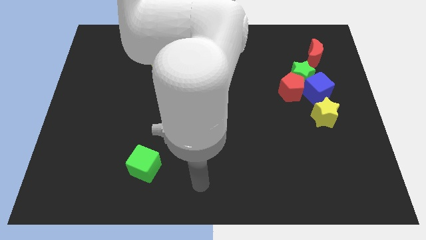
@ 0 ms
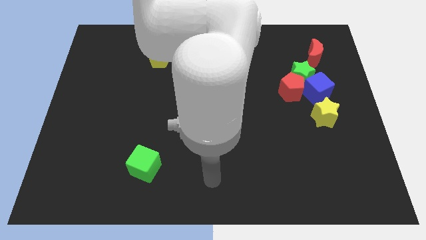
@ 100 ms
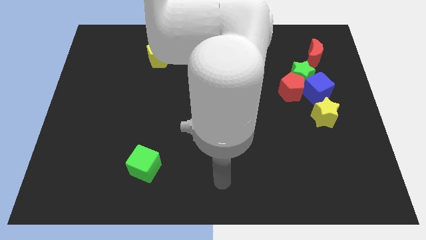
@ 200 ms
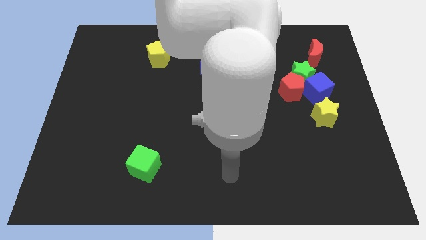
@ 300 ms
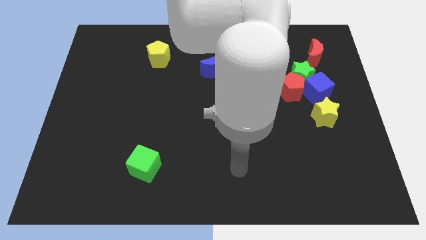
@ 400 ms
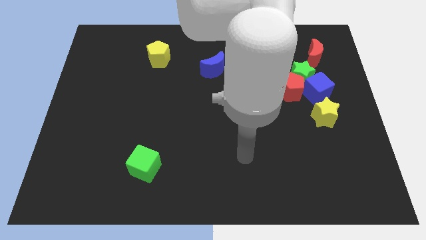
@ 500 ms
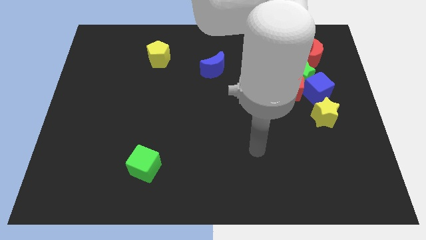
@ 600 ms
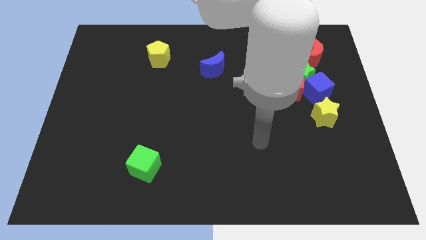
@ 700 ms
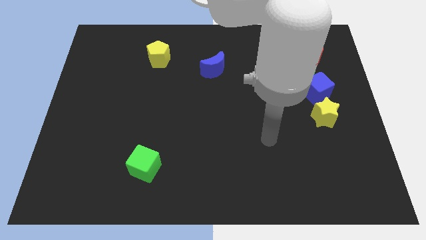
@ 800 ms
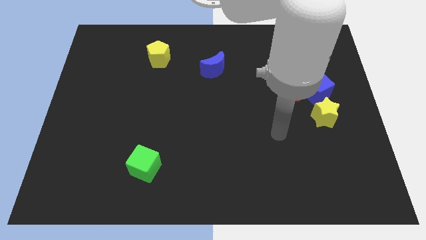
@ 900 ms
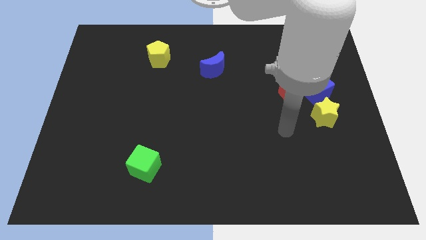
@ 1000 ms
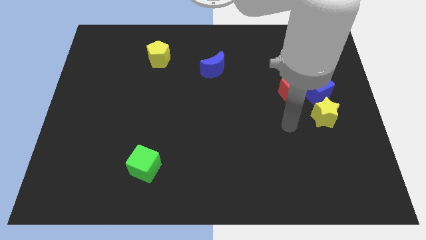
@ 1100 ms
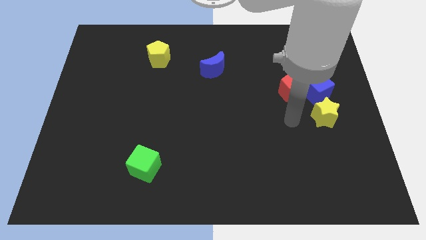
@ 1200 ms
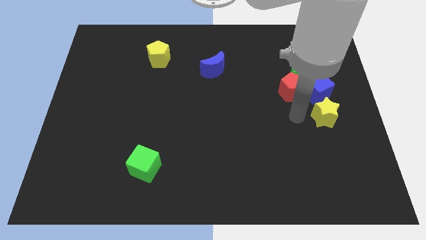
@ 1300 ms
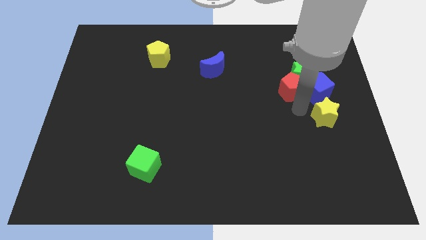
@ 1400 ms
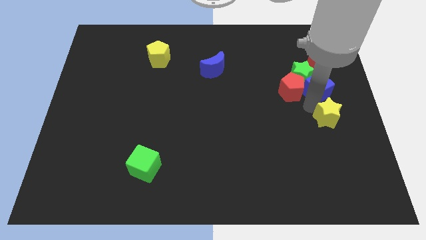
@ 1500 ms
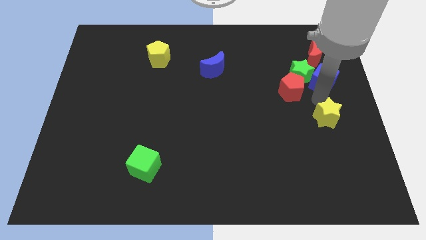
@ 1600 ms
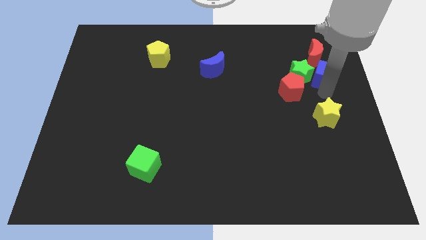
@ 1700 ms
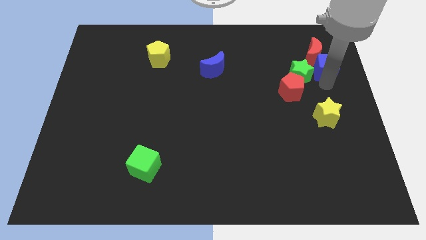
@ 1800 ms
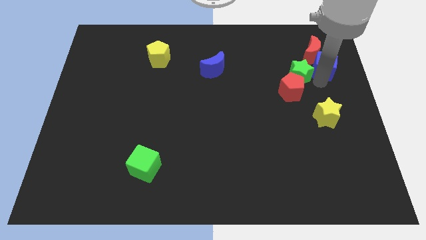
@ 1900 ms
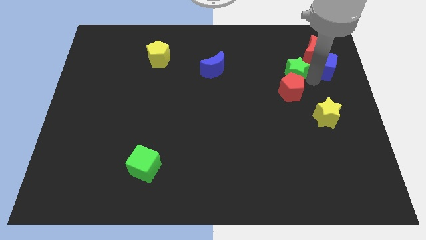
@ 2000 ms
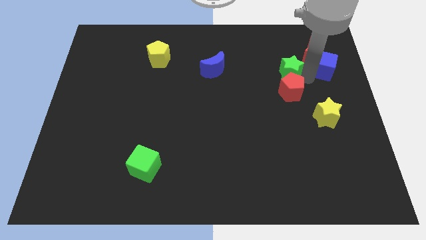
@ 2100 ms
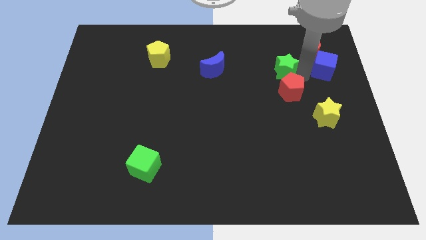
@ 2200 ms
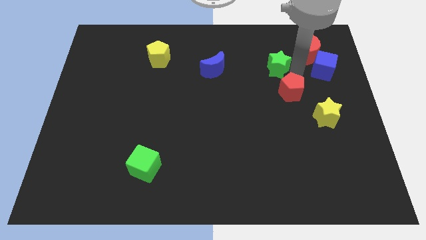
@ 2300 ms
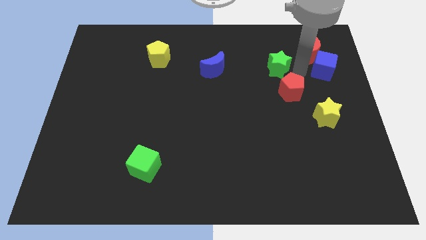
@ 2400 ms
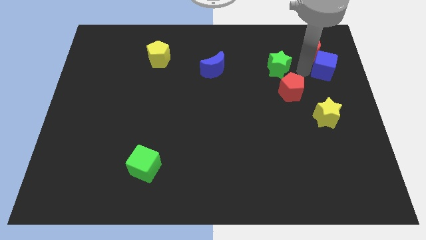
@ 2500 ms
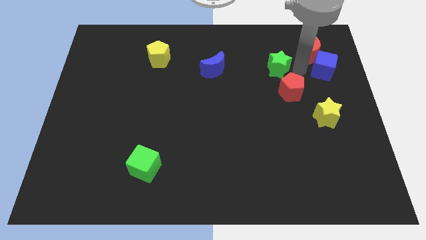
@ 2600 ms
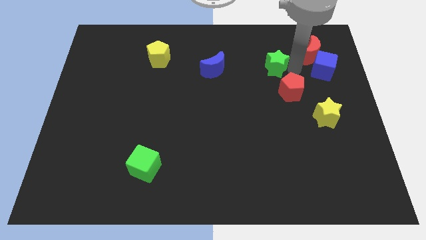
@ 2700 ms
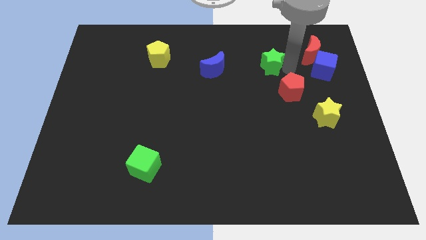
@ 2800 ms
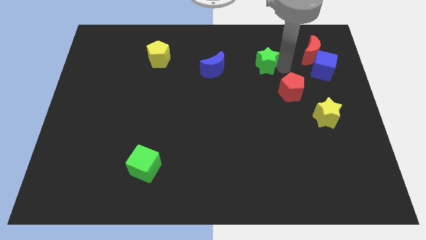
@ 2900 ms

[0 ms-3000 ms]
pull the green star apart from the group

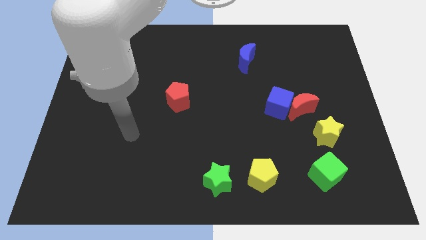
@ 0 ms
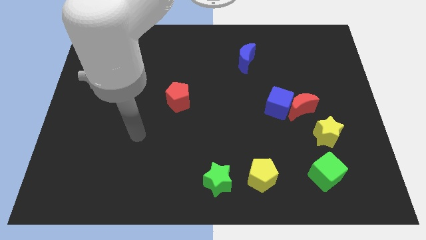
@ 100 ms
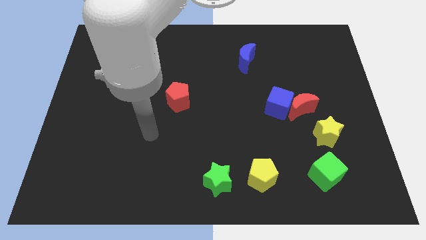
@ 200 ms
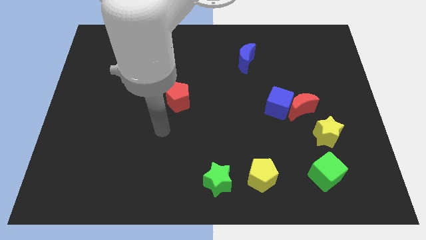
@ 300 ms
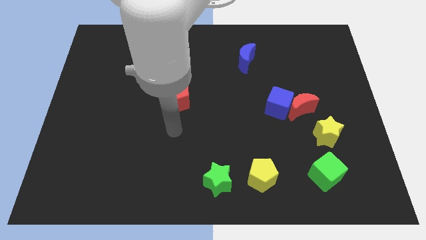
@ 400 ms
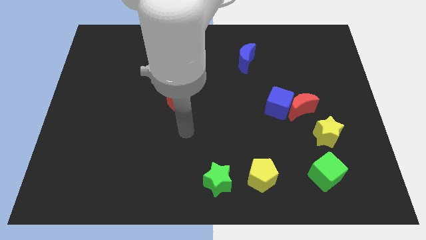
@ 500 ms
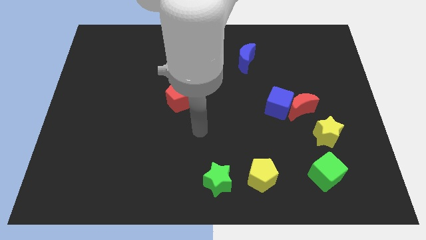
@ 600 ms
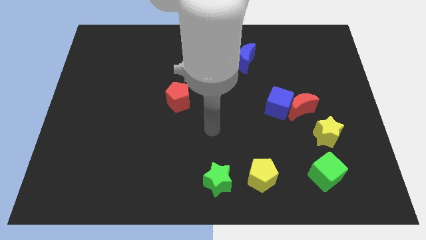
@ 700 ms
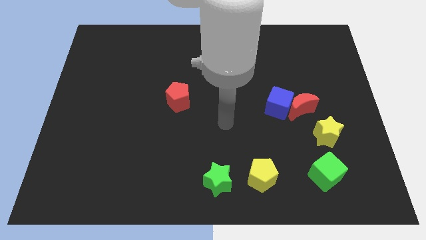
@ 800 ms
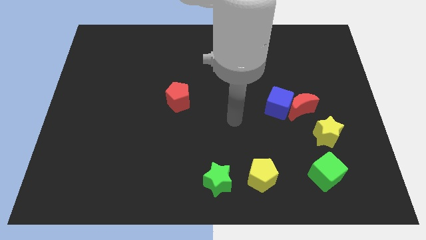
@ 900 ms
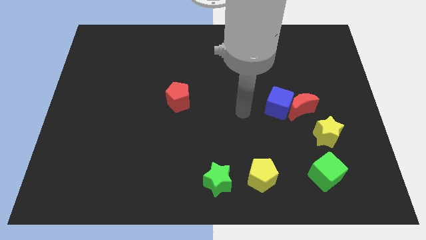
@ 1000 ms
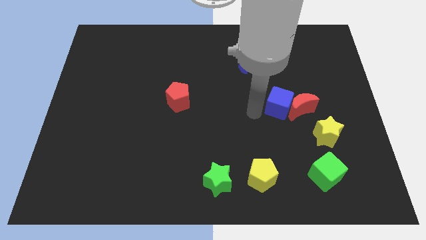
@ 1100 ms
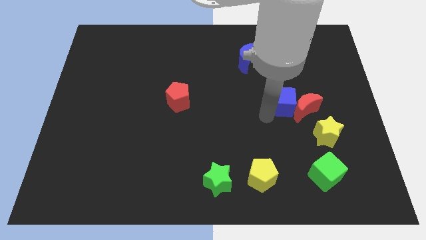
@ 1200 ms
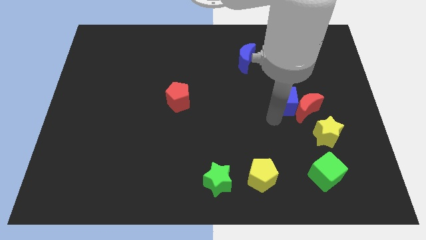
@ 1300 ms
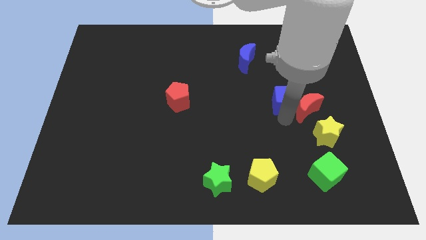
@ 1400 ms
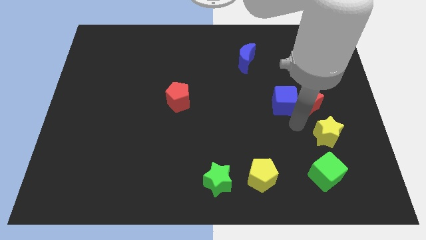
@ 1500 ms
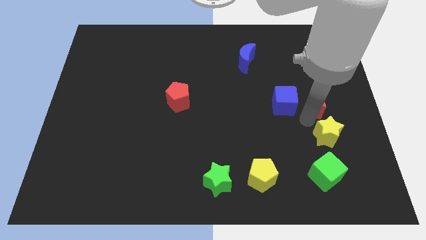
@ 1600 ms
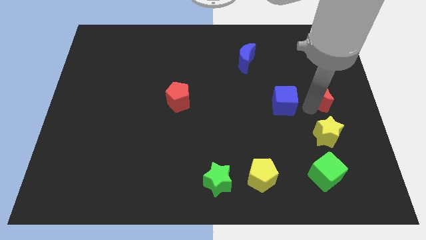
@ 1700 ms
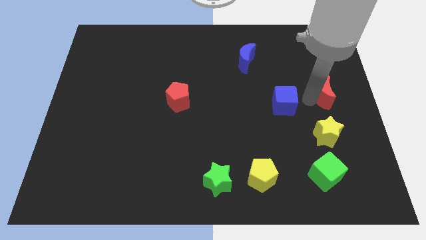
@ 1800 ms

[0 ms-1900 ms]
move the blue cube away from the red moon

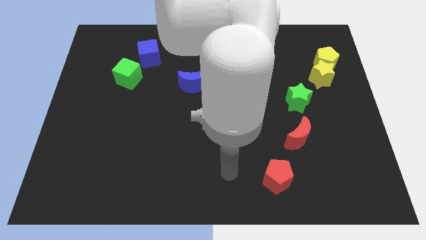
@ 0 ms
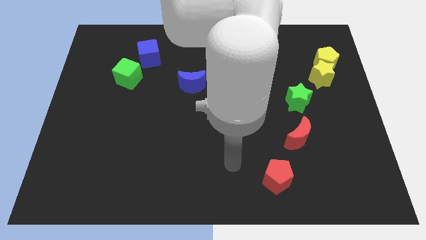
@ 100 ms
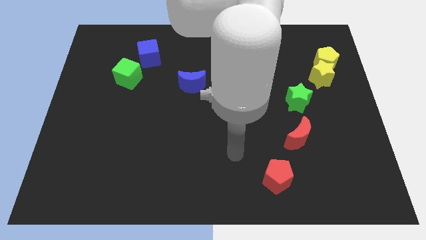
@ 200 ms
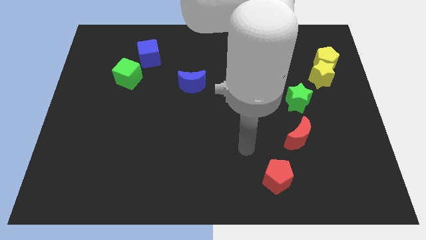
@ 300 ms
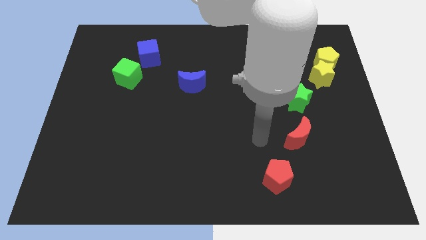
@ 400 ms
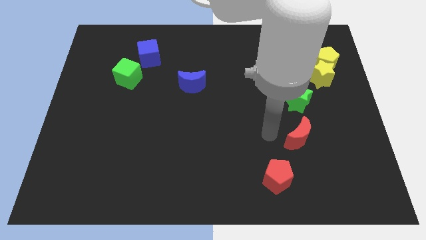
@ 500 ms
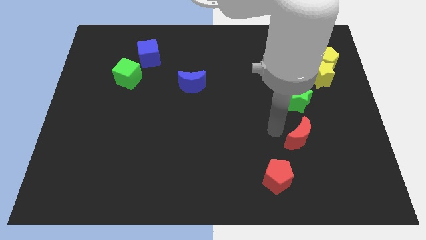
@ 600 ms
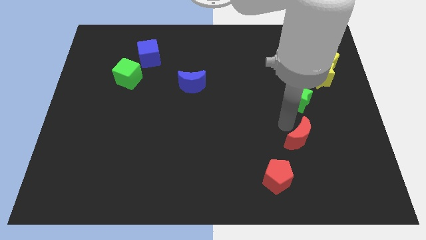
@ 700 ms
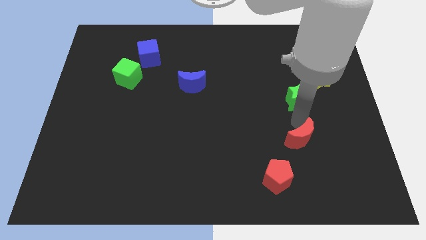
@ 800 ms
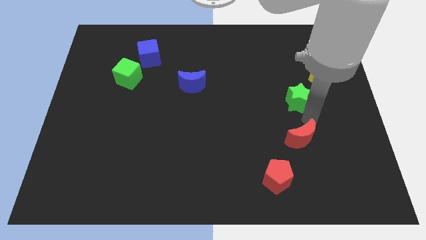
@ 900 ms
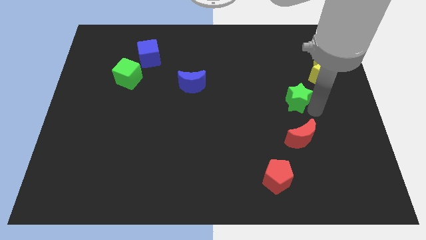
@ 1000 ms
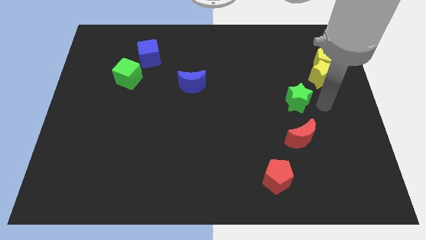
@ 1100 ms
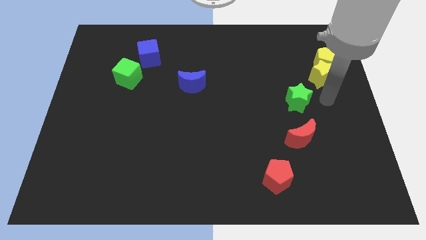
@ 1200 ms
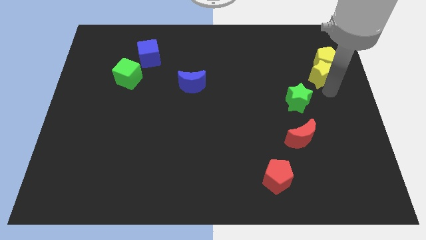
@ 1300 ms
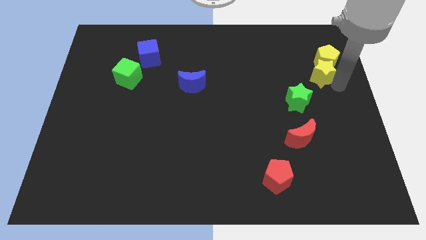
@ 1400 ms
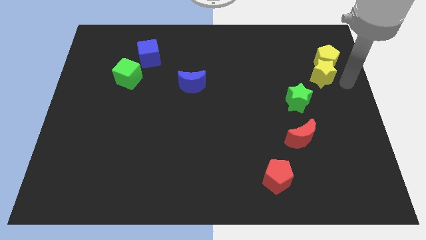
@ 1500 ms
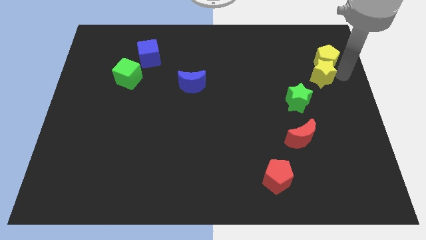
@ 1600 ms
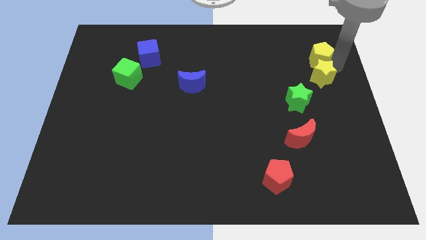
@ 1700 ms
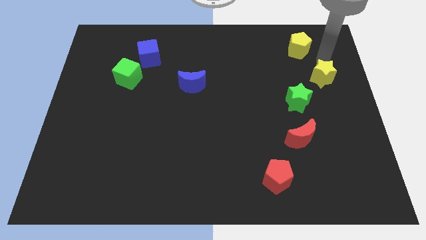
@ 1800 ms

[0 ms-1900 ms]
separate the yellow star from the yellow pentagon

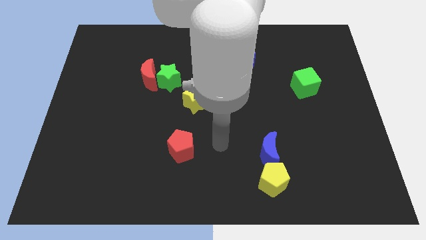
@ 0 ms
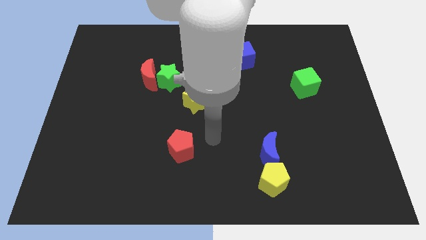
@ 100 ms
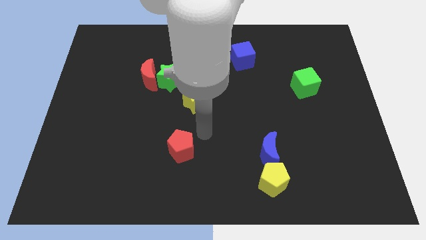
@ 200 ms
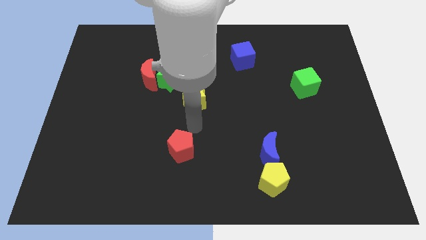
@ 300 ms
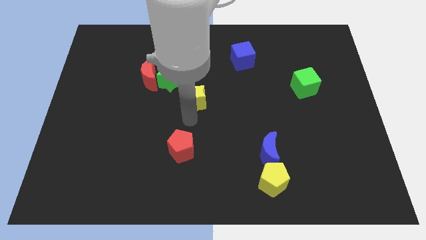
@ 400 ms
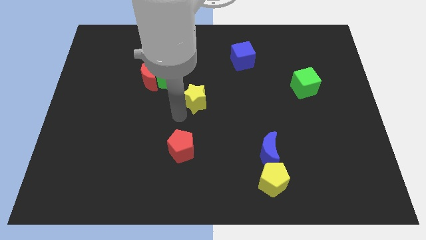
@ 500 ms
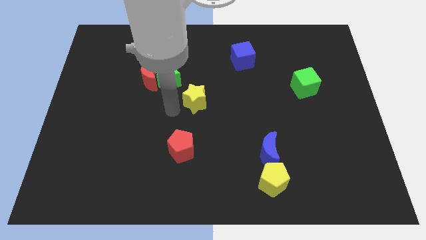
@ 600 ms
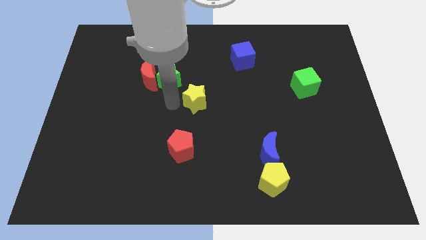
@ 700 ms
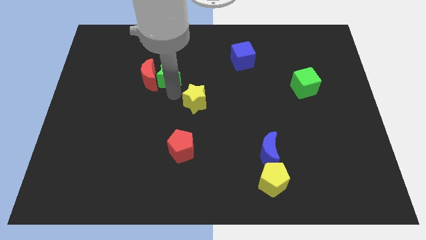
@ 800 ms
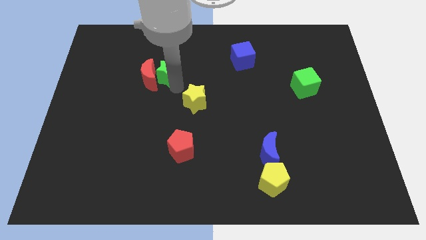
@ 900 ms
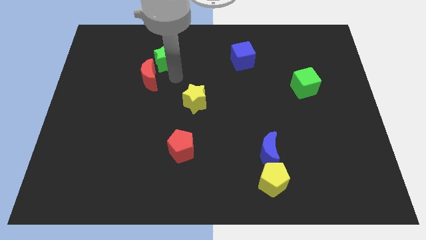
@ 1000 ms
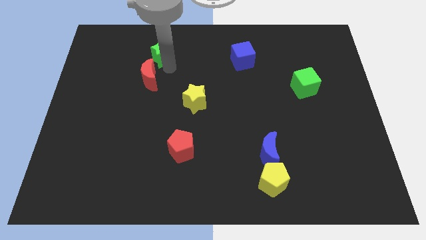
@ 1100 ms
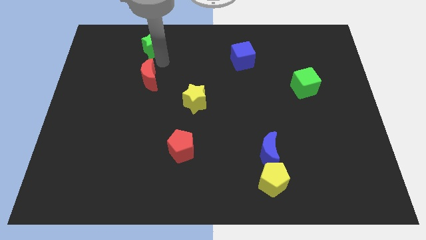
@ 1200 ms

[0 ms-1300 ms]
separate the red moon from the green star

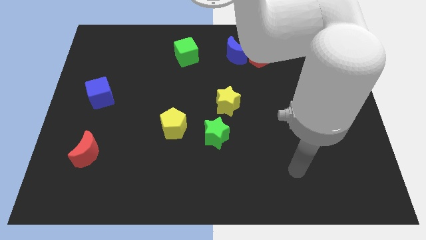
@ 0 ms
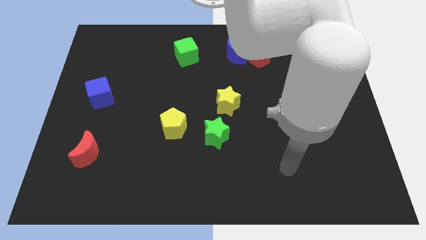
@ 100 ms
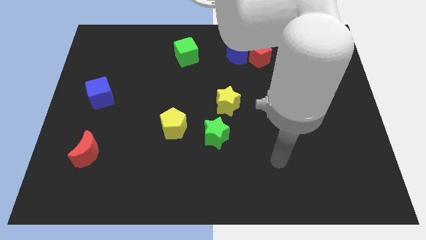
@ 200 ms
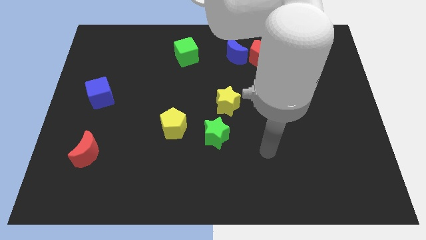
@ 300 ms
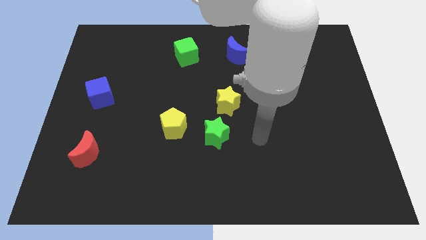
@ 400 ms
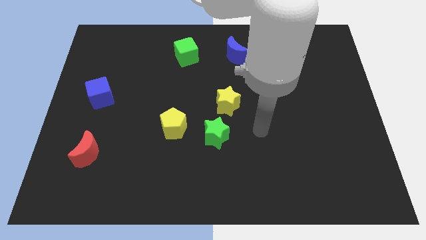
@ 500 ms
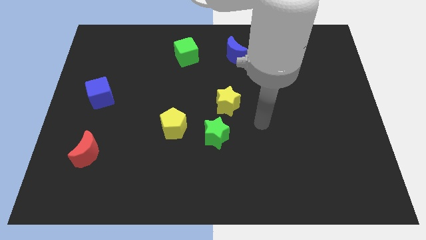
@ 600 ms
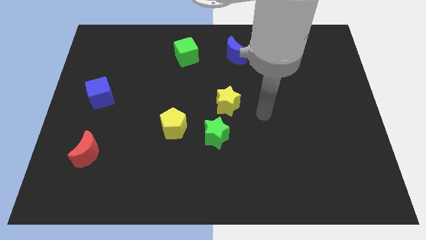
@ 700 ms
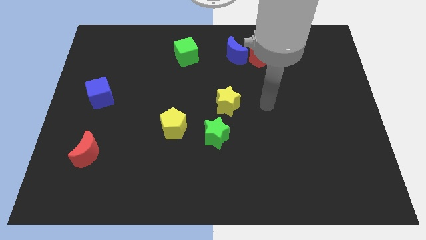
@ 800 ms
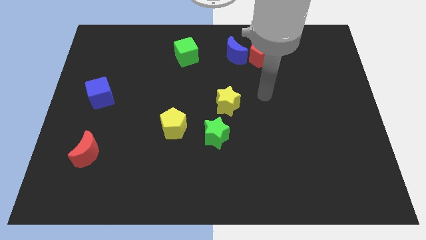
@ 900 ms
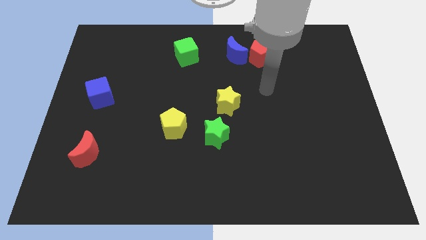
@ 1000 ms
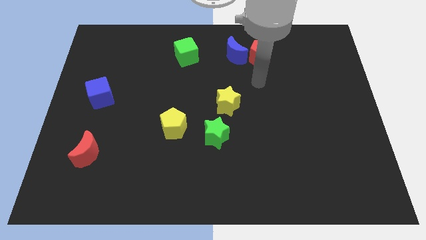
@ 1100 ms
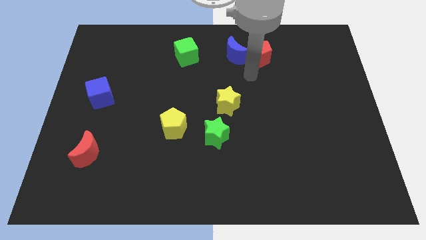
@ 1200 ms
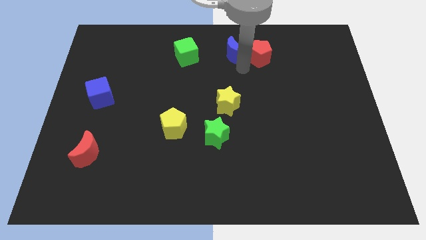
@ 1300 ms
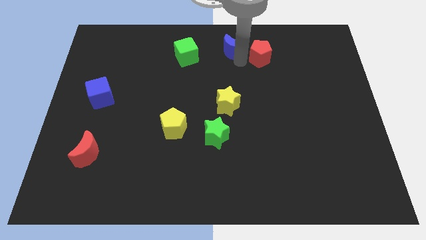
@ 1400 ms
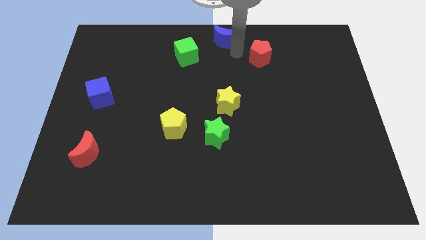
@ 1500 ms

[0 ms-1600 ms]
pull the red pentagon apart from the blue moon
